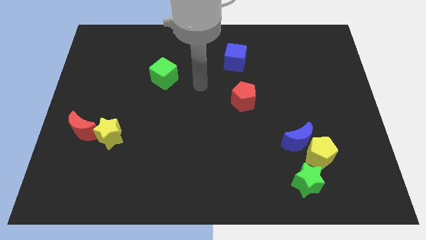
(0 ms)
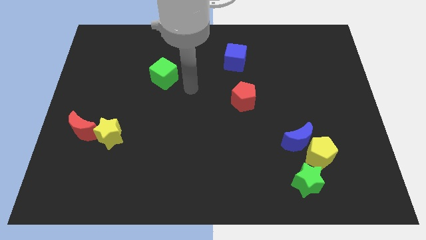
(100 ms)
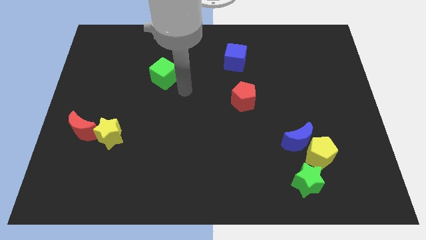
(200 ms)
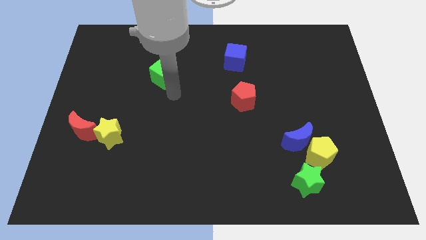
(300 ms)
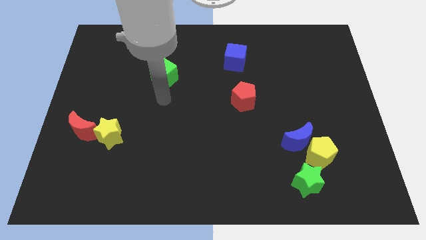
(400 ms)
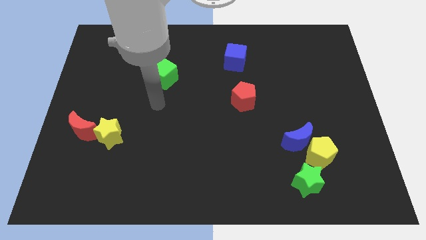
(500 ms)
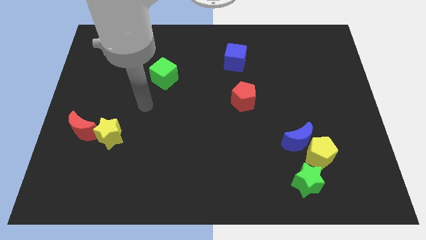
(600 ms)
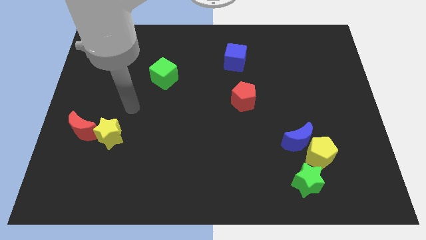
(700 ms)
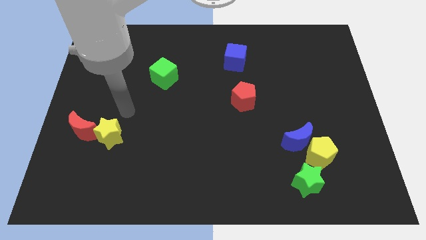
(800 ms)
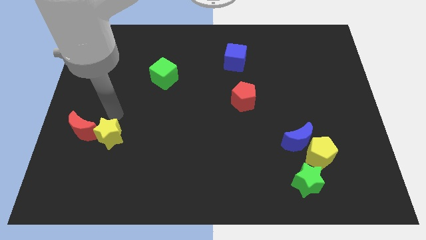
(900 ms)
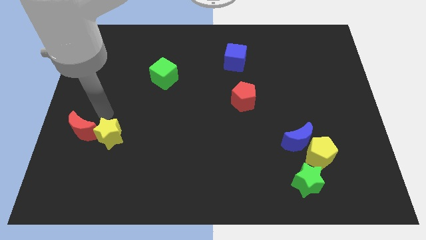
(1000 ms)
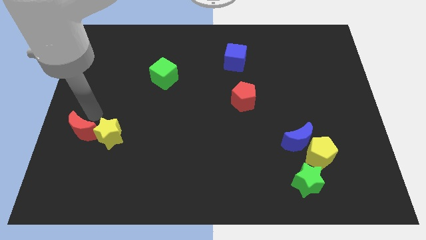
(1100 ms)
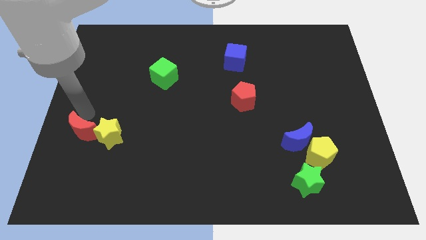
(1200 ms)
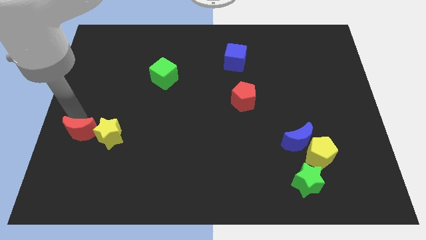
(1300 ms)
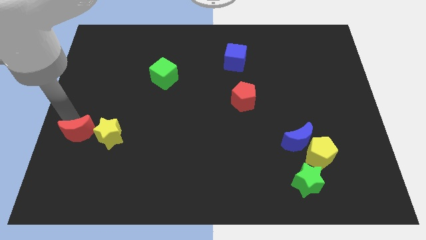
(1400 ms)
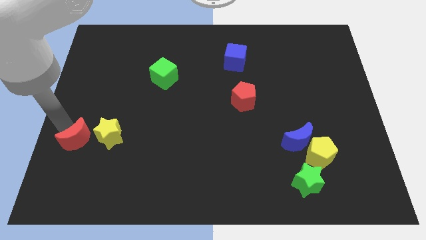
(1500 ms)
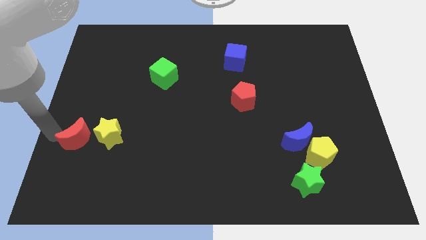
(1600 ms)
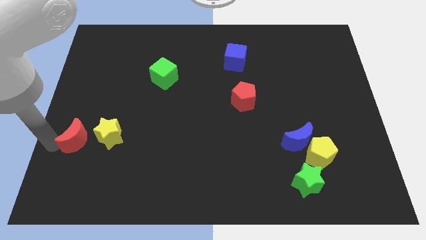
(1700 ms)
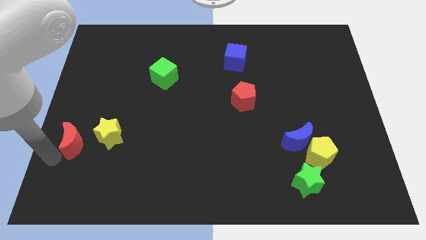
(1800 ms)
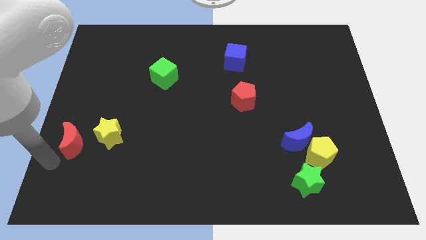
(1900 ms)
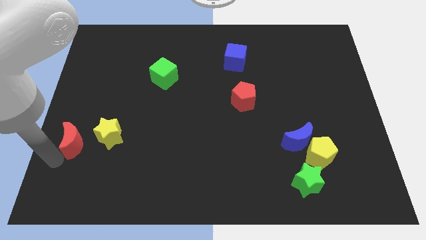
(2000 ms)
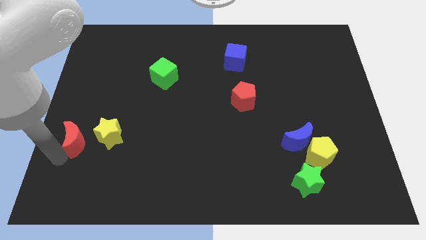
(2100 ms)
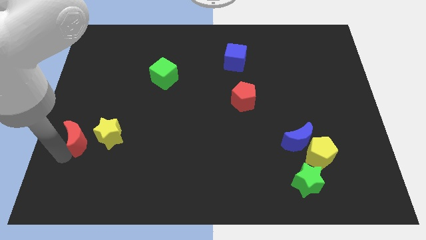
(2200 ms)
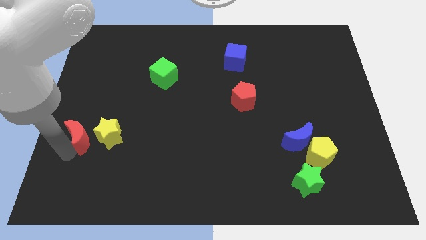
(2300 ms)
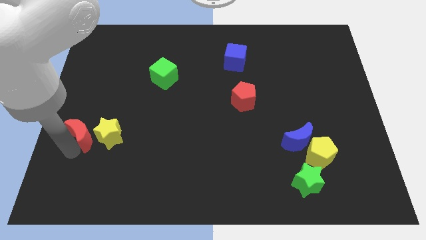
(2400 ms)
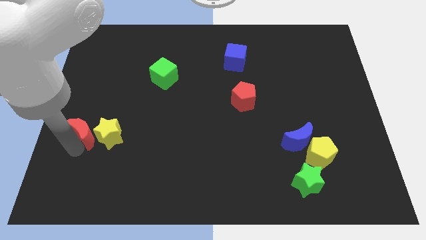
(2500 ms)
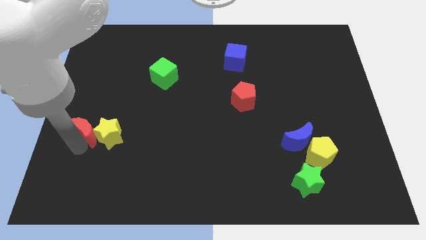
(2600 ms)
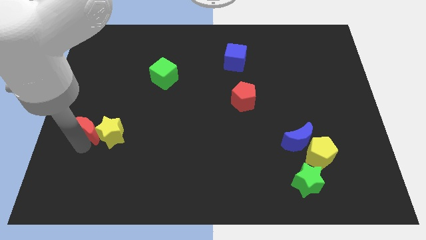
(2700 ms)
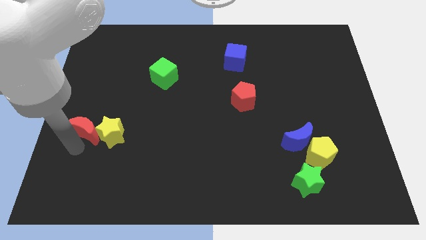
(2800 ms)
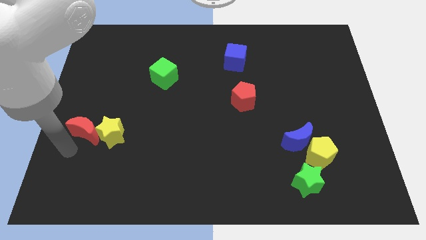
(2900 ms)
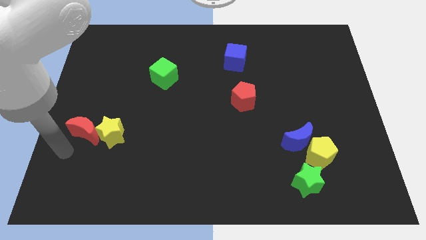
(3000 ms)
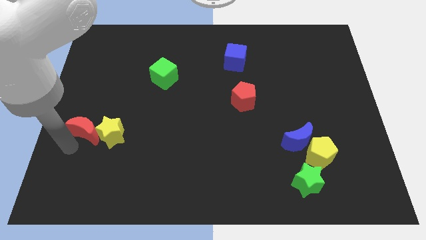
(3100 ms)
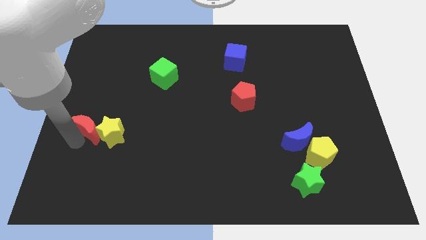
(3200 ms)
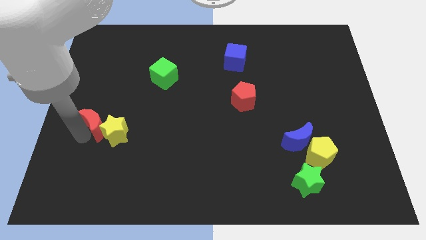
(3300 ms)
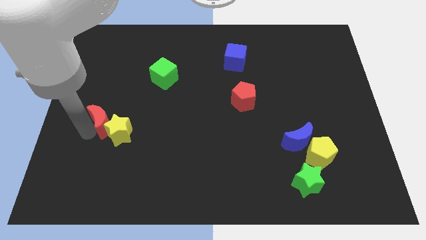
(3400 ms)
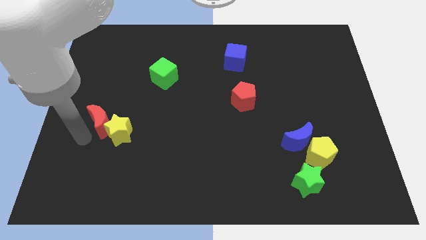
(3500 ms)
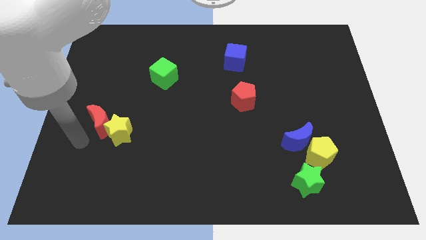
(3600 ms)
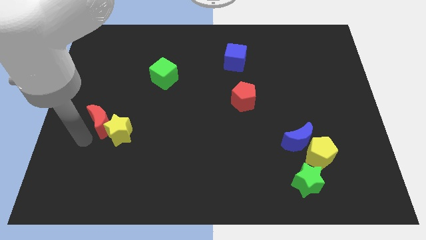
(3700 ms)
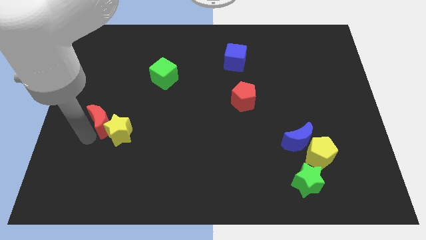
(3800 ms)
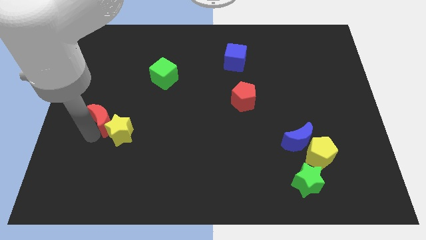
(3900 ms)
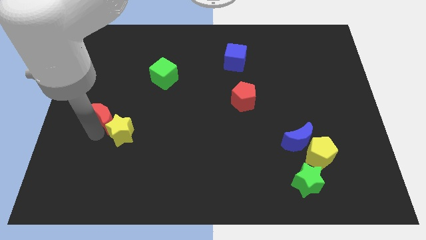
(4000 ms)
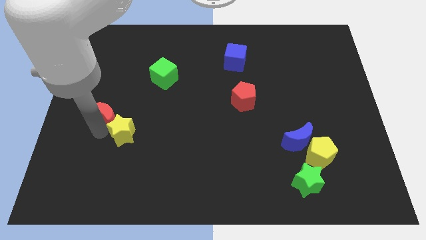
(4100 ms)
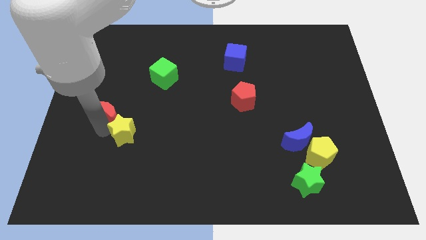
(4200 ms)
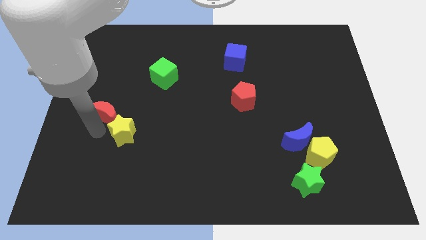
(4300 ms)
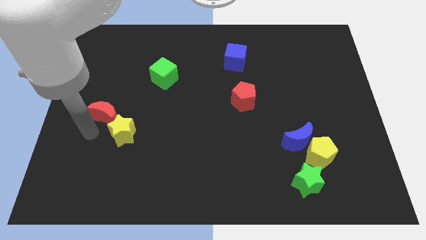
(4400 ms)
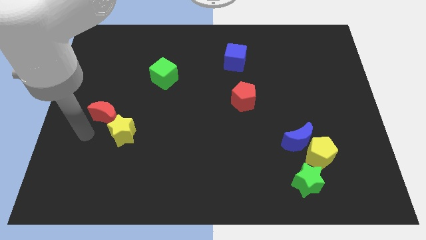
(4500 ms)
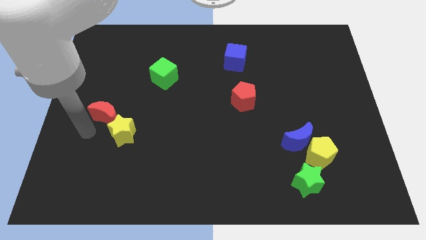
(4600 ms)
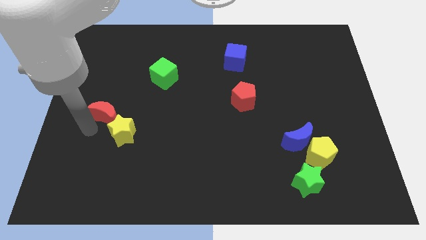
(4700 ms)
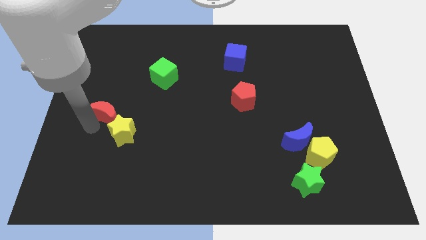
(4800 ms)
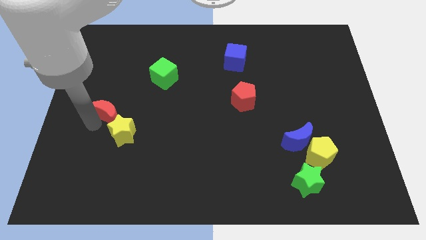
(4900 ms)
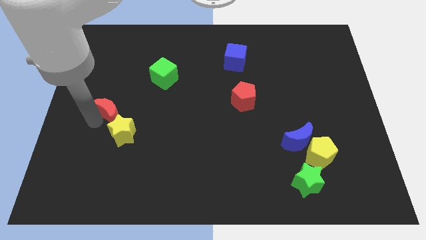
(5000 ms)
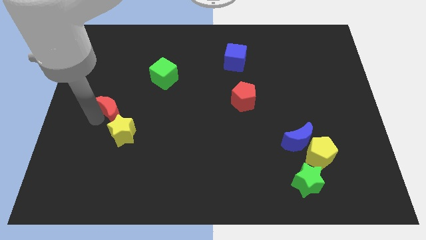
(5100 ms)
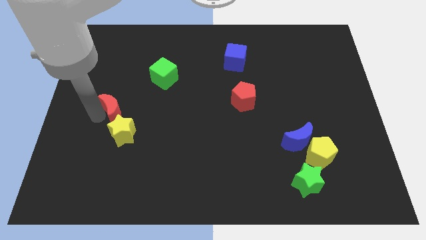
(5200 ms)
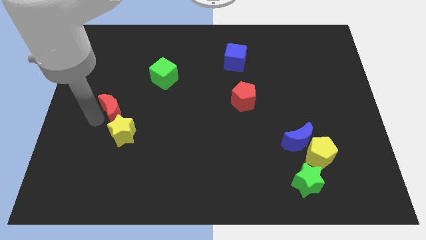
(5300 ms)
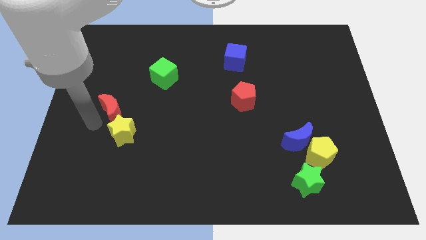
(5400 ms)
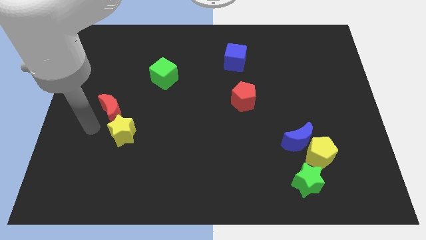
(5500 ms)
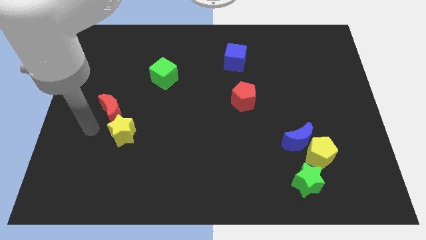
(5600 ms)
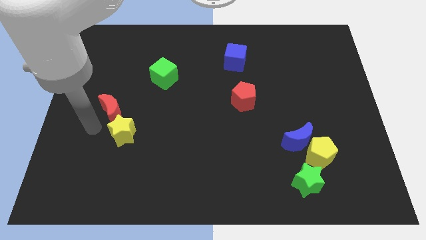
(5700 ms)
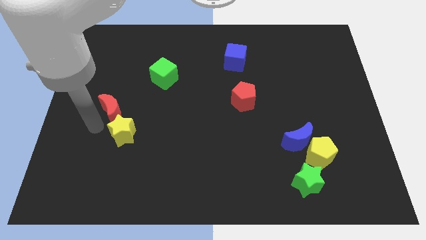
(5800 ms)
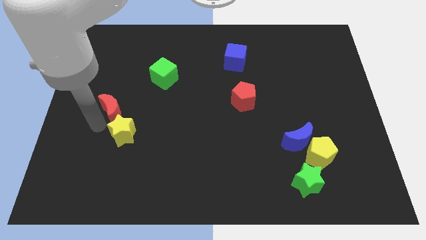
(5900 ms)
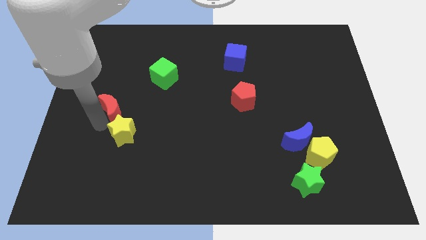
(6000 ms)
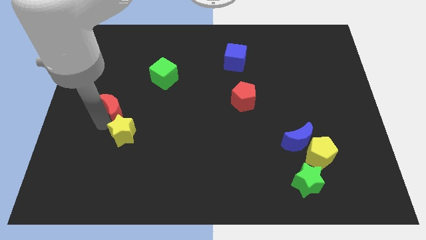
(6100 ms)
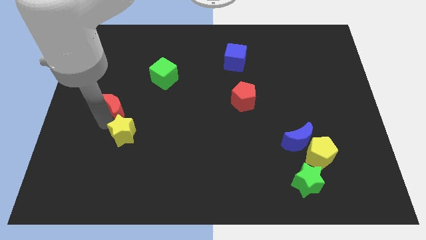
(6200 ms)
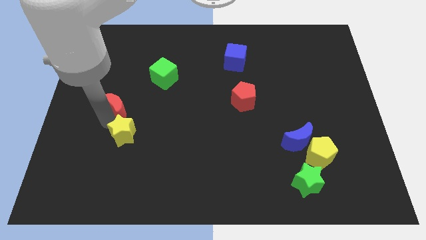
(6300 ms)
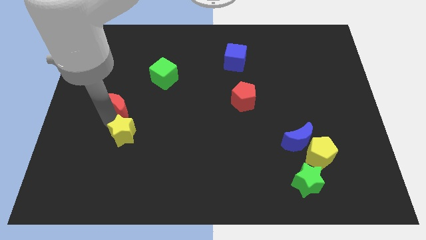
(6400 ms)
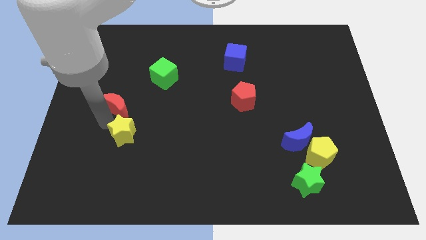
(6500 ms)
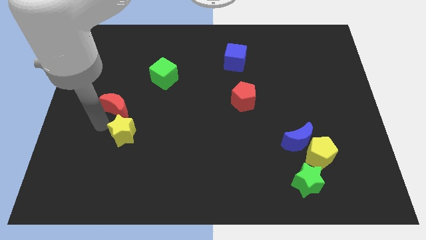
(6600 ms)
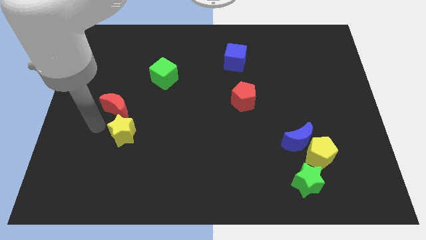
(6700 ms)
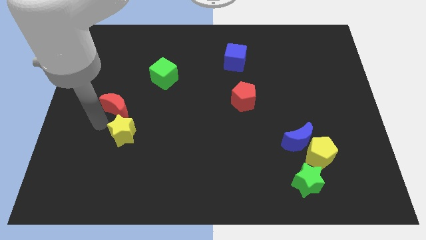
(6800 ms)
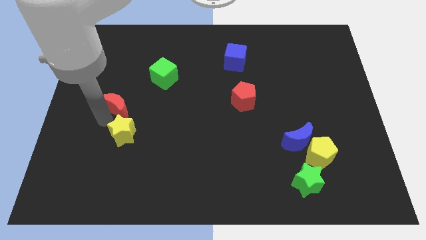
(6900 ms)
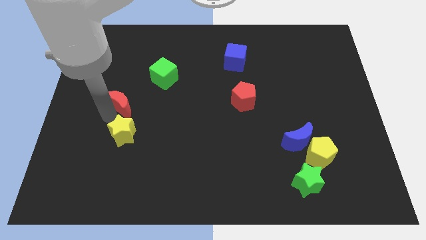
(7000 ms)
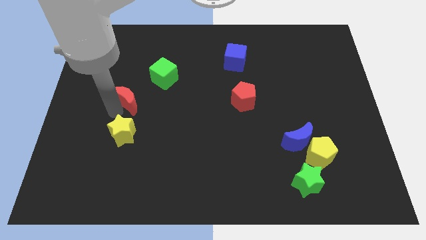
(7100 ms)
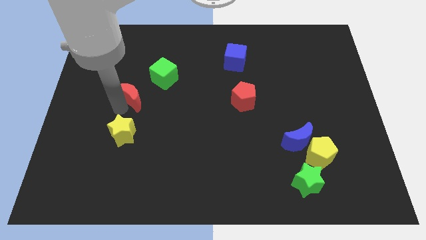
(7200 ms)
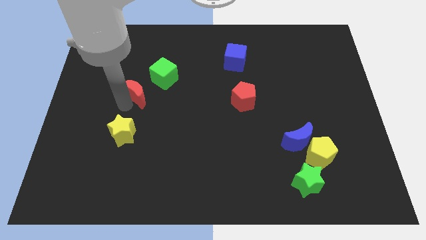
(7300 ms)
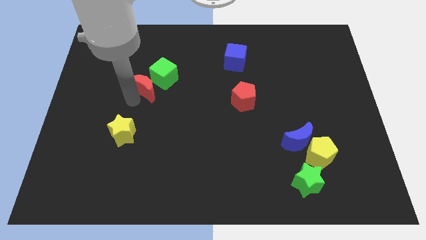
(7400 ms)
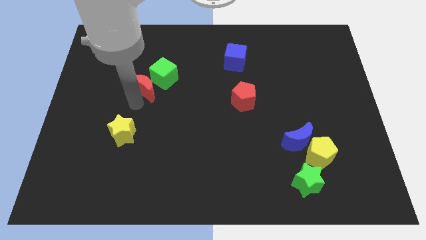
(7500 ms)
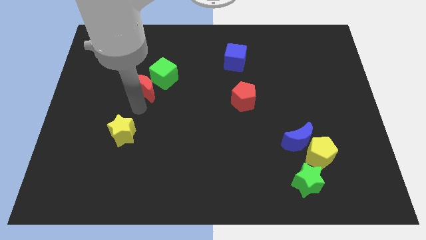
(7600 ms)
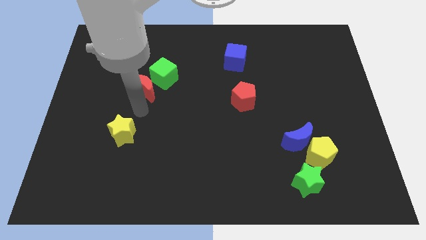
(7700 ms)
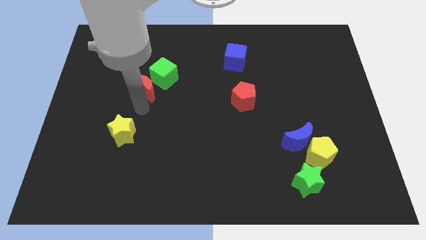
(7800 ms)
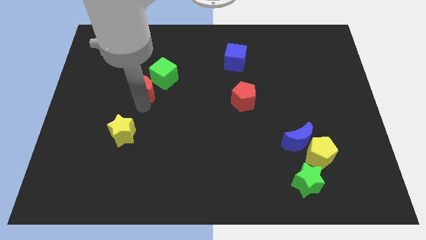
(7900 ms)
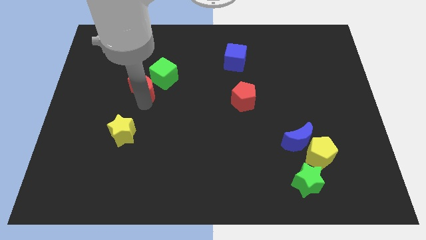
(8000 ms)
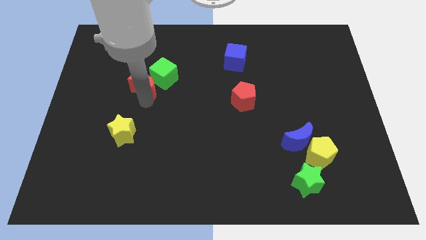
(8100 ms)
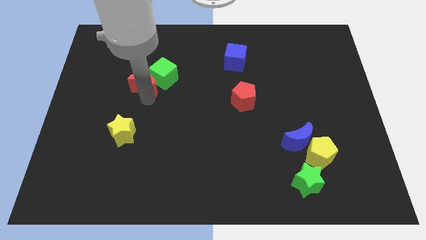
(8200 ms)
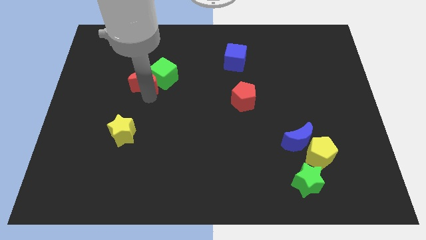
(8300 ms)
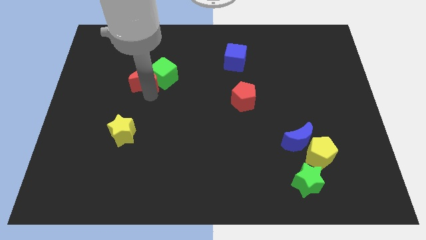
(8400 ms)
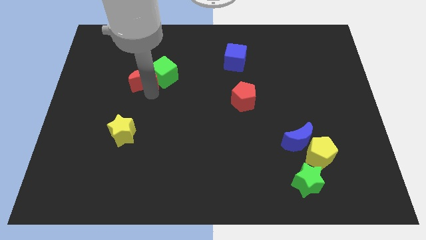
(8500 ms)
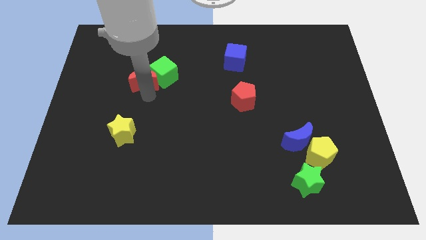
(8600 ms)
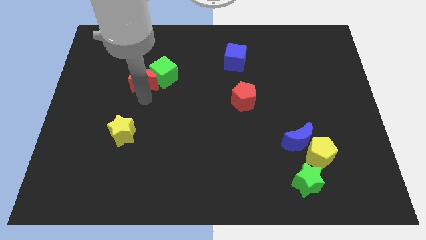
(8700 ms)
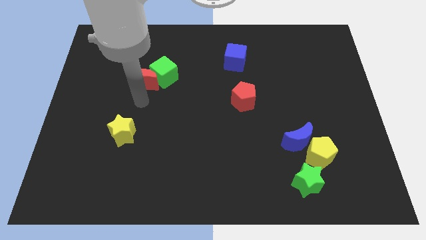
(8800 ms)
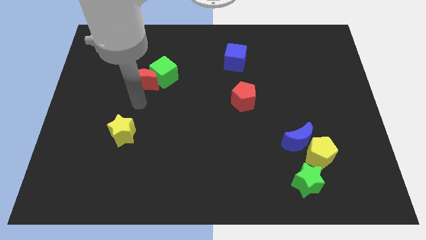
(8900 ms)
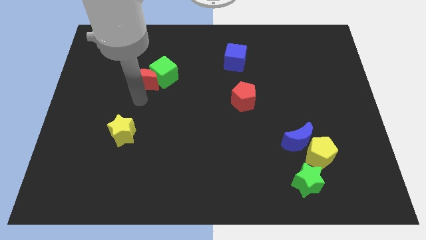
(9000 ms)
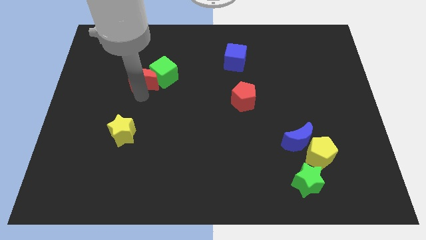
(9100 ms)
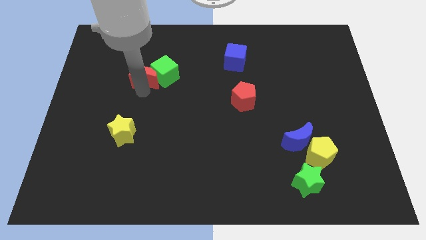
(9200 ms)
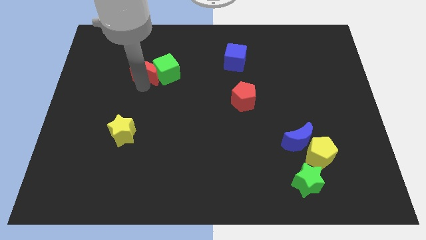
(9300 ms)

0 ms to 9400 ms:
slide the red moon diagonally up and to the right
